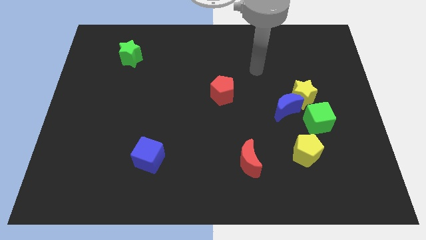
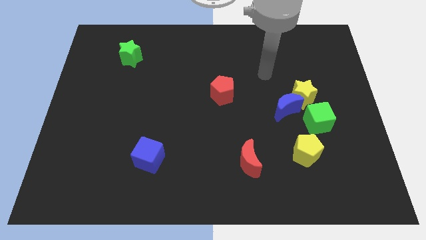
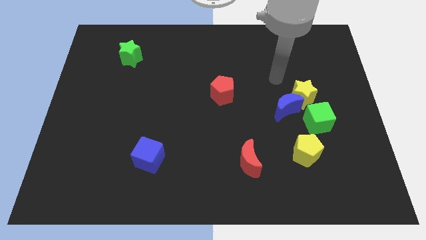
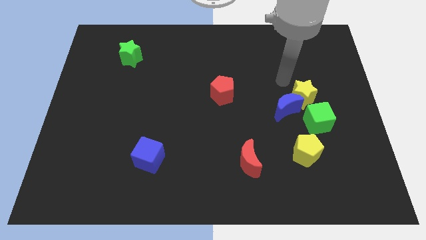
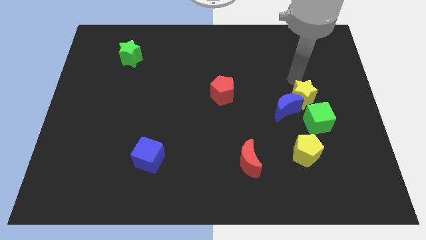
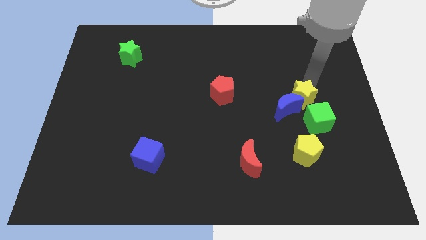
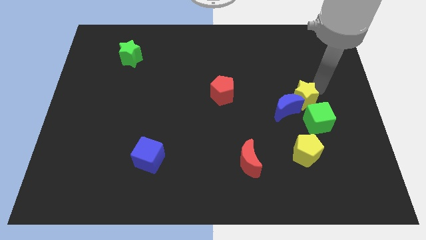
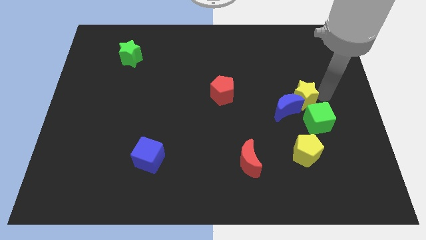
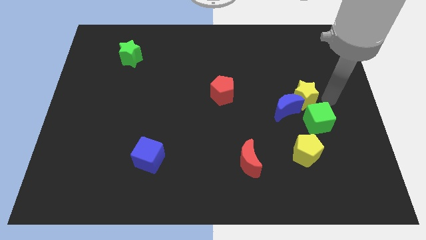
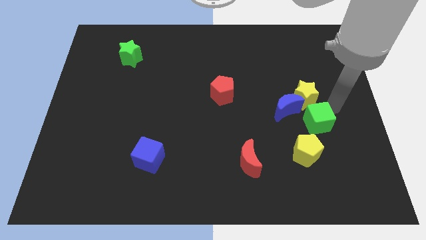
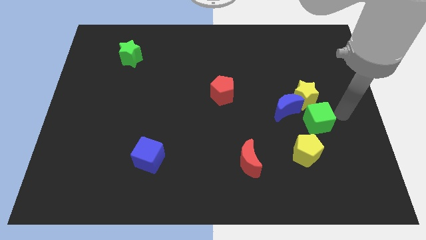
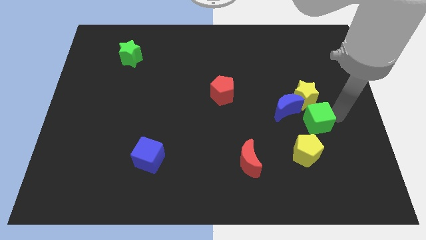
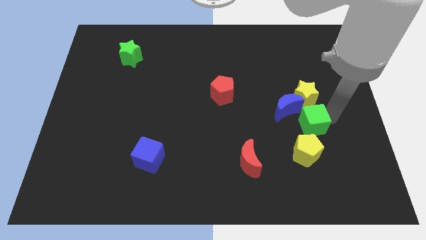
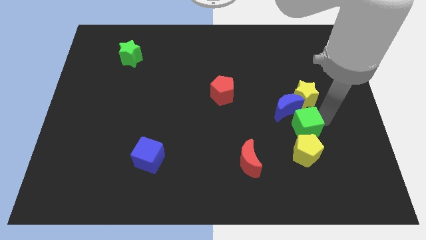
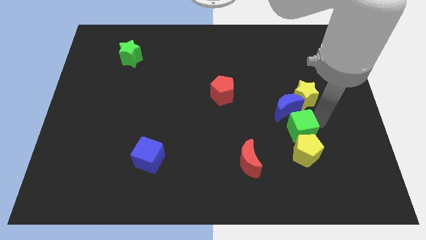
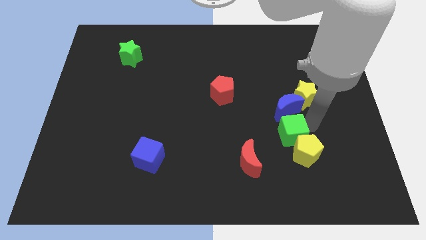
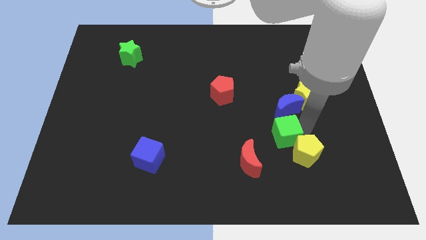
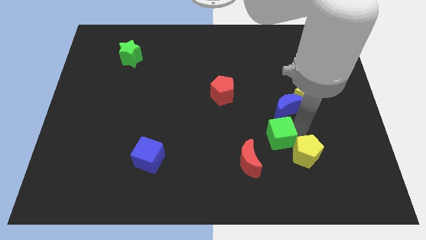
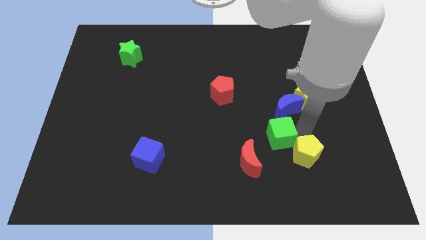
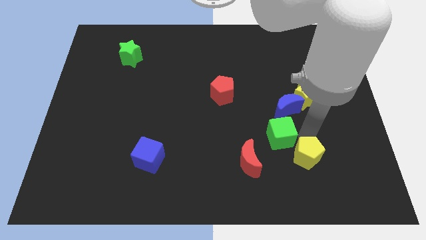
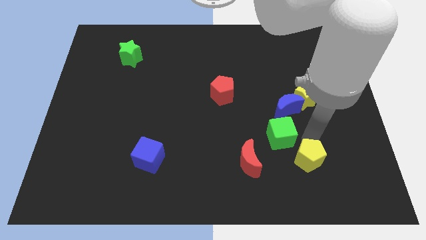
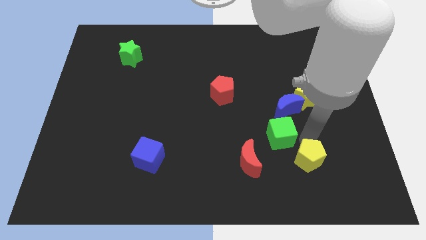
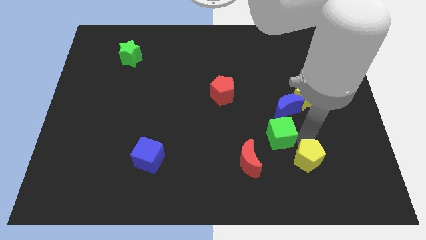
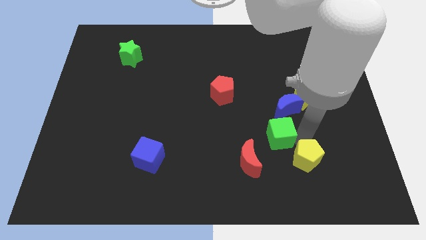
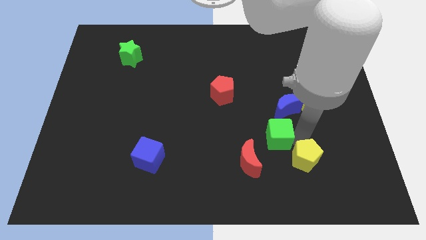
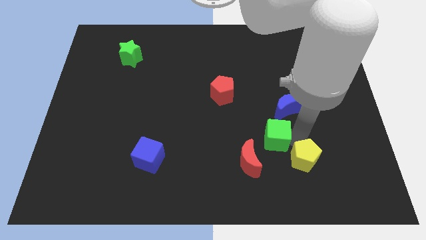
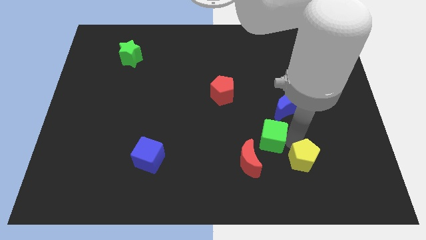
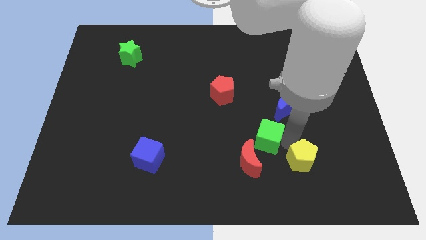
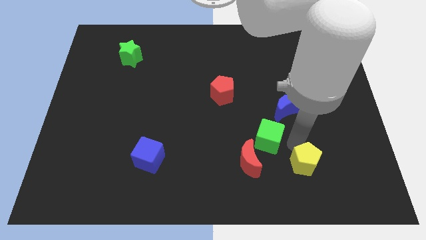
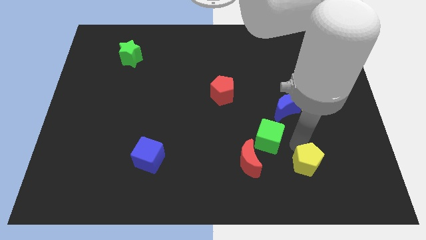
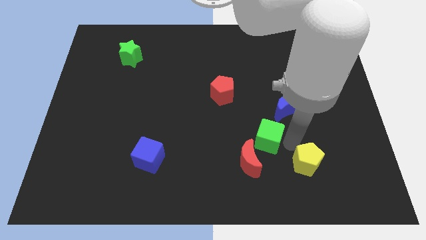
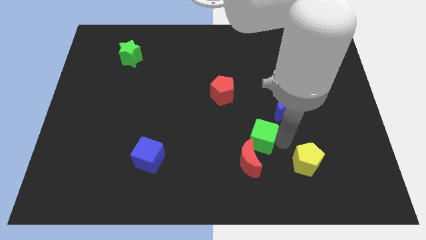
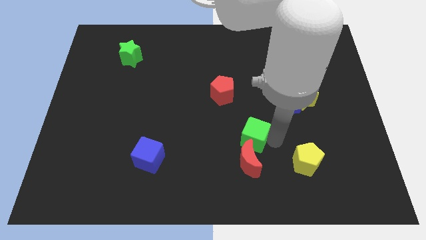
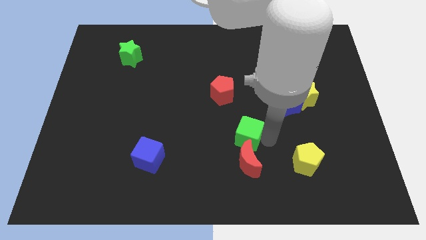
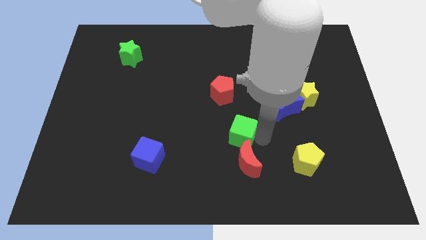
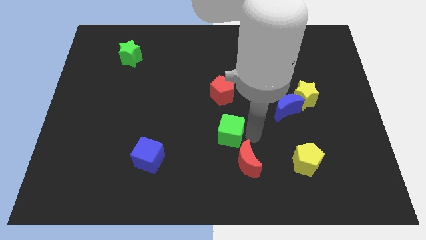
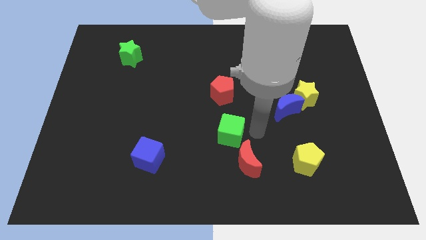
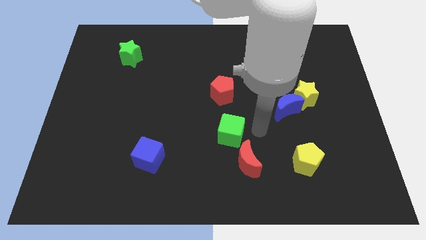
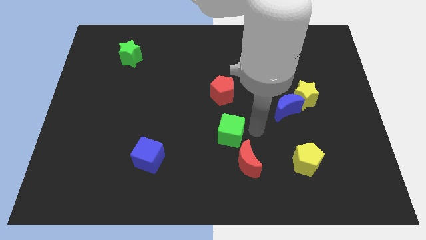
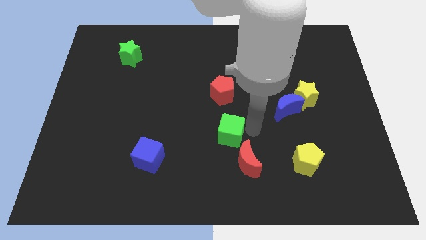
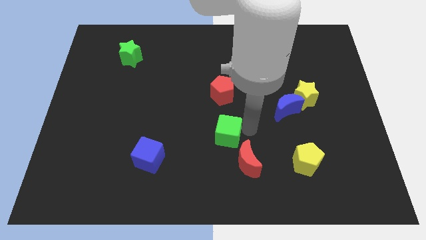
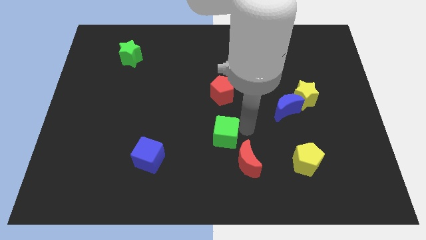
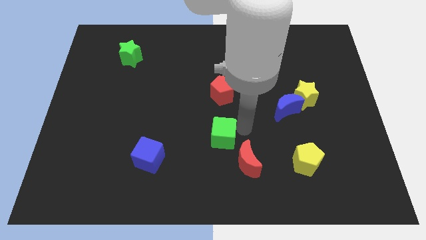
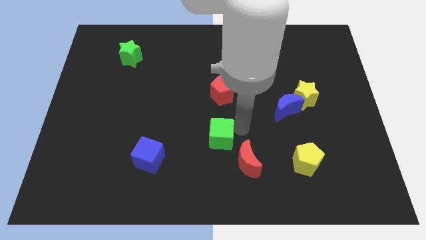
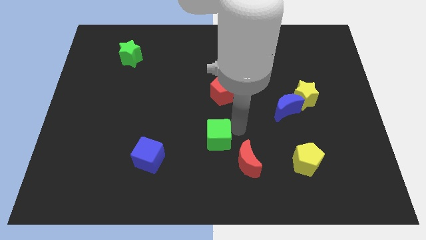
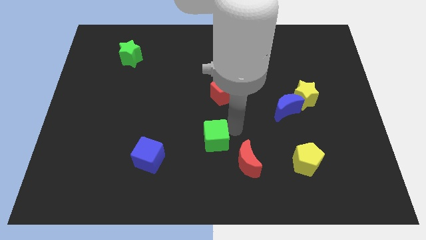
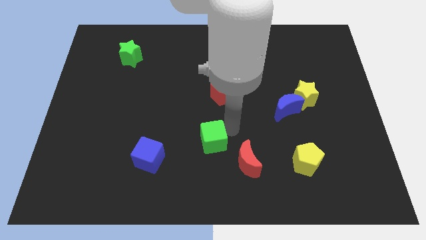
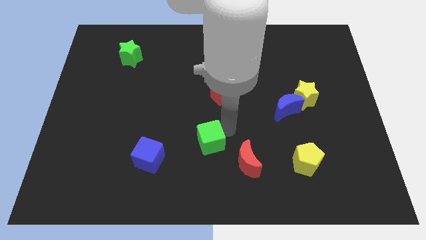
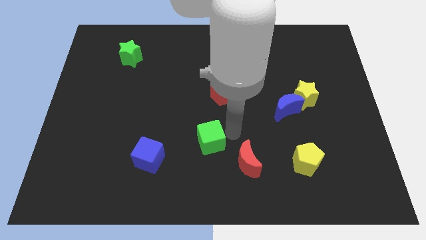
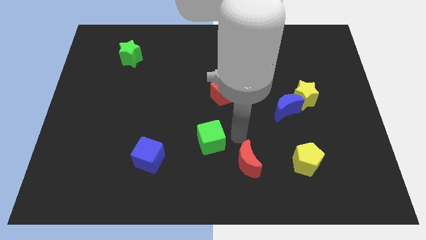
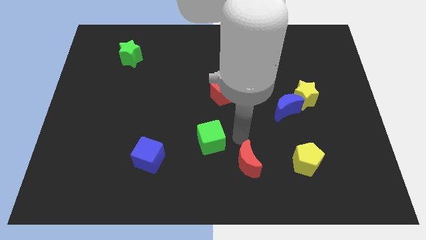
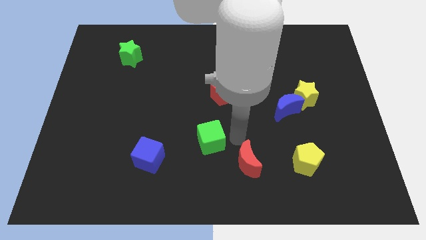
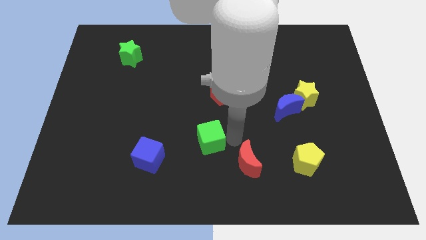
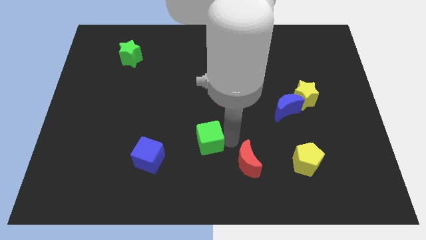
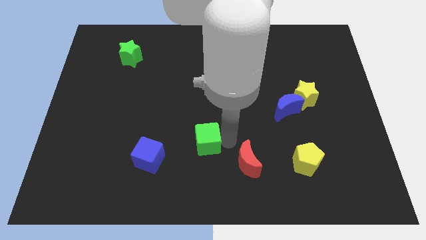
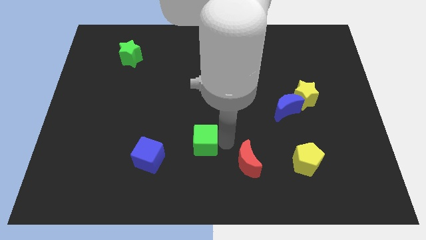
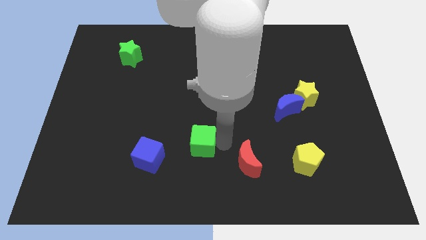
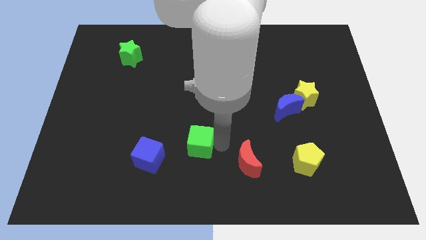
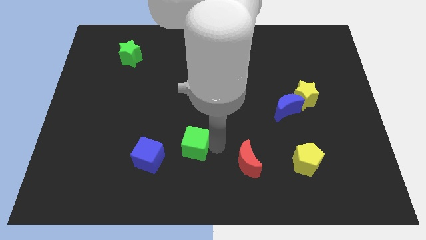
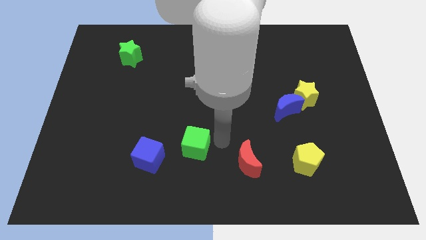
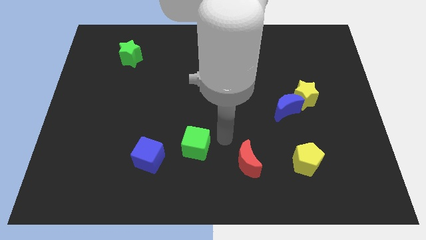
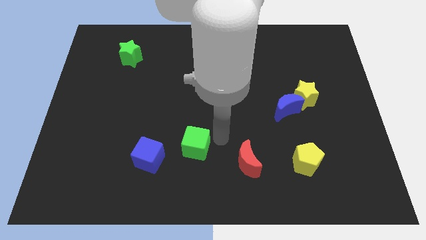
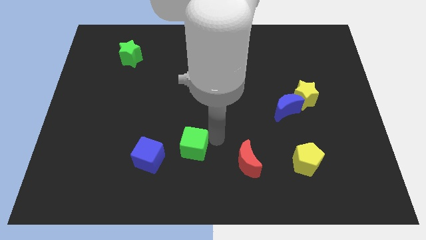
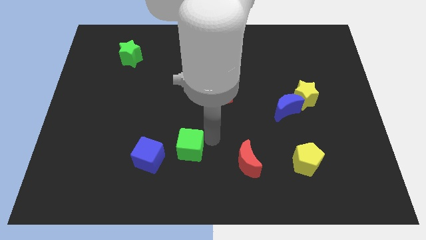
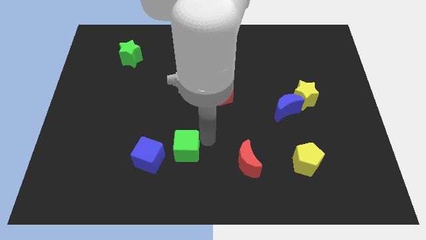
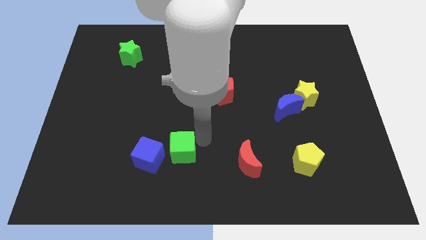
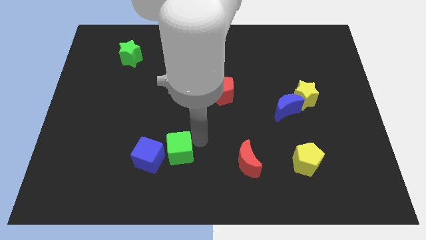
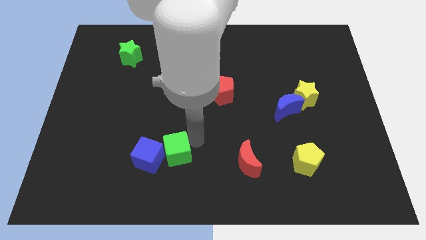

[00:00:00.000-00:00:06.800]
push the green cube to the blue cube

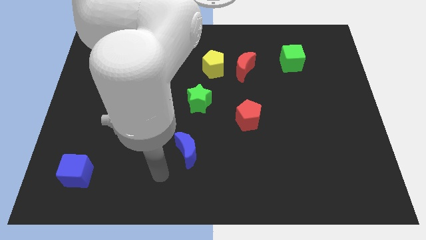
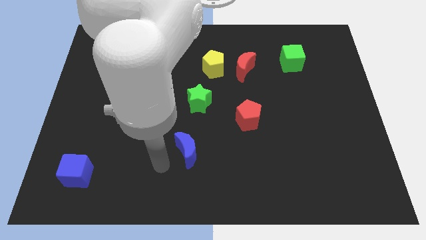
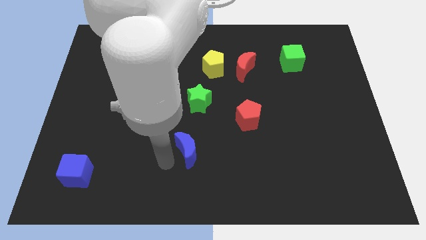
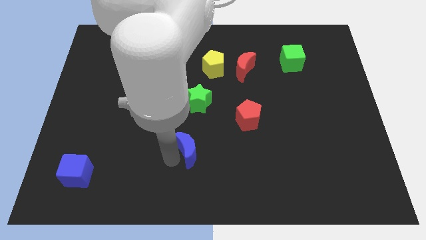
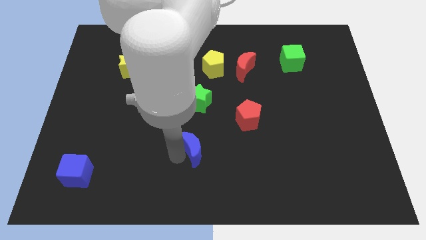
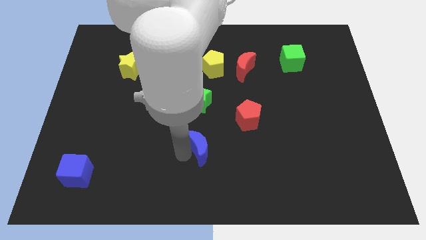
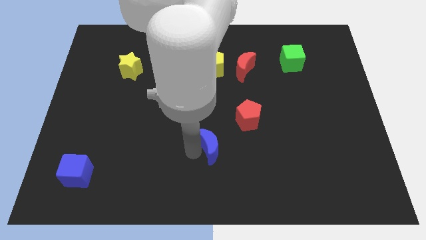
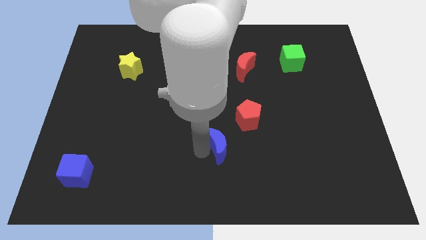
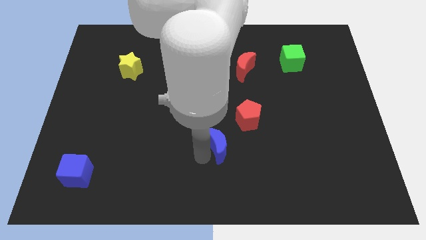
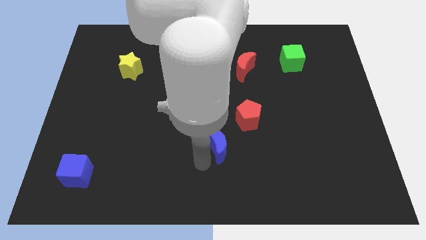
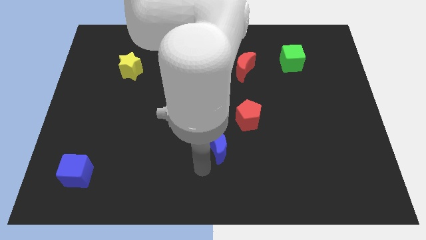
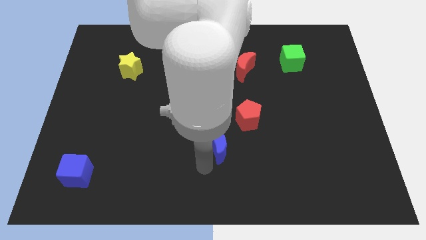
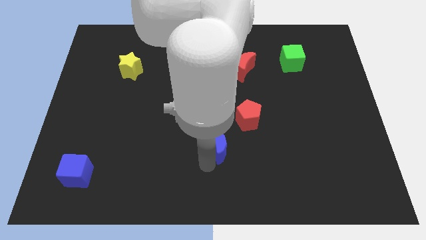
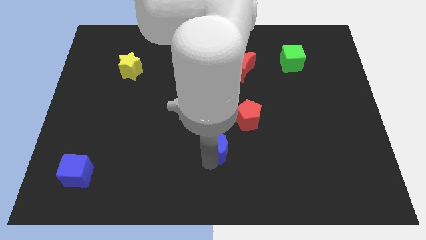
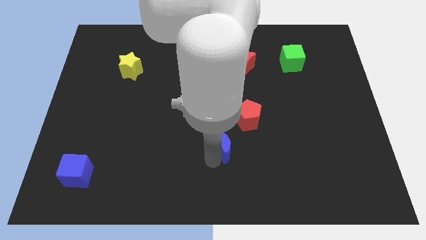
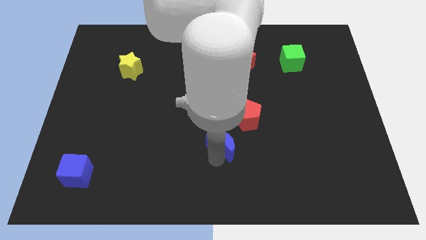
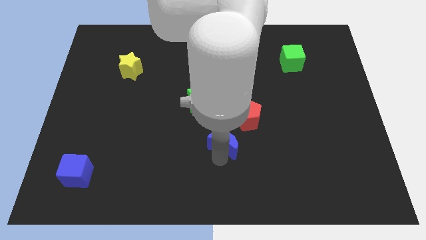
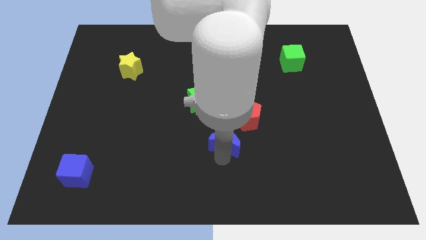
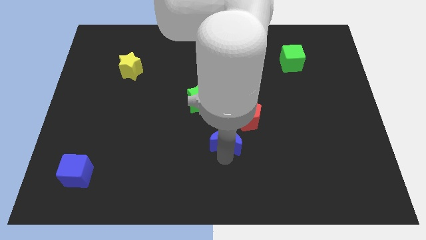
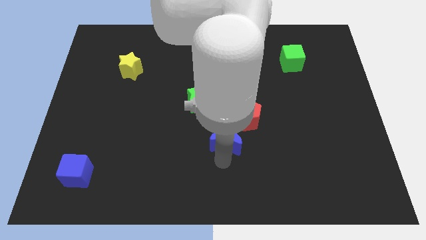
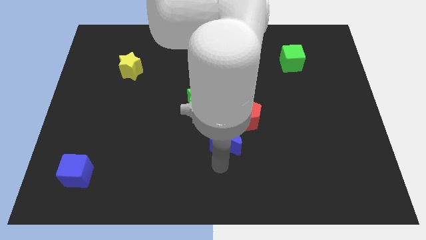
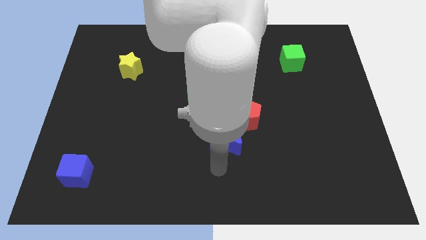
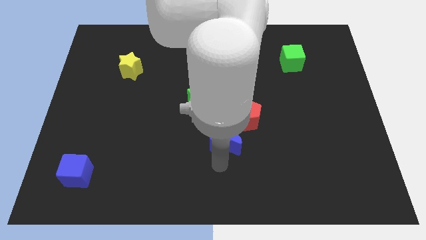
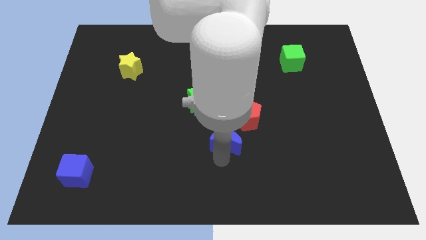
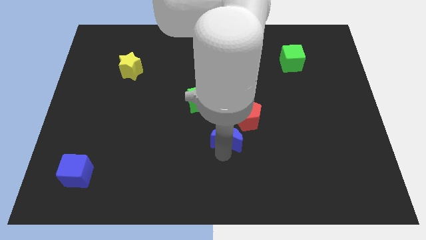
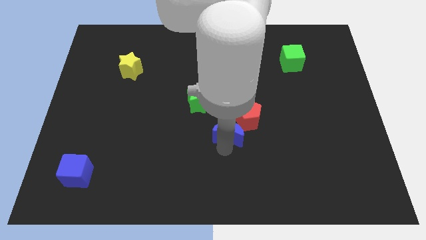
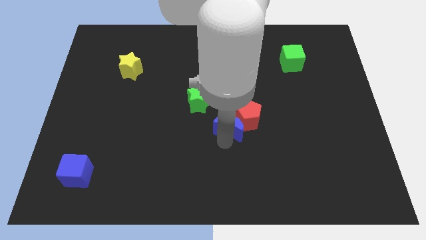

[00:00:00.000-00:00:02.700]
move the blue moon towards the red pentagon
